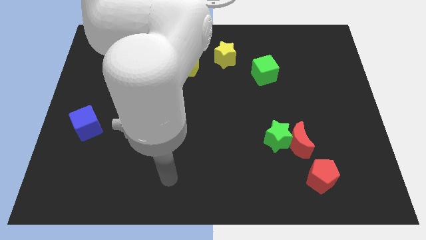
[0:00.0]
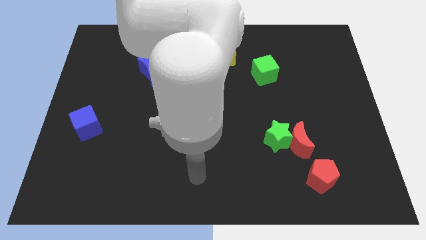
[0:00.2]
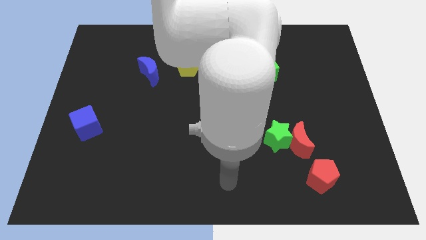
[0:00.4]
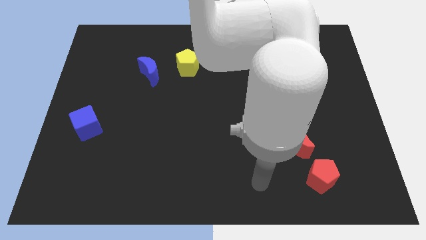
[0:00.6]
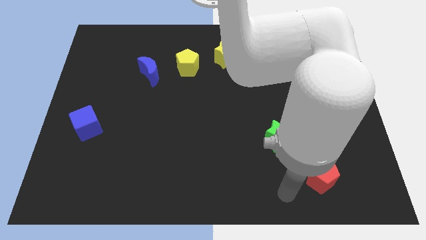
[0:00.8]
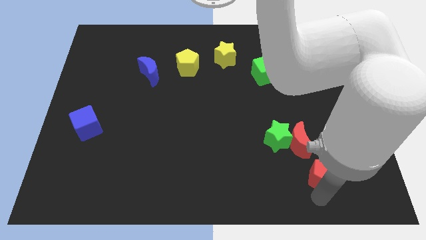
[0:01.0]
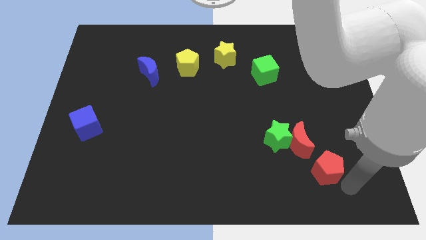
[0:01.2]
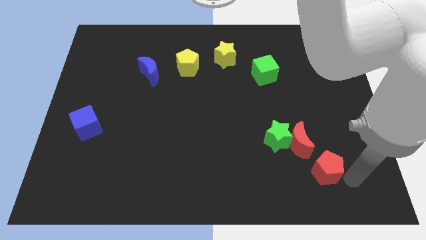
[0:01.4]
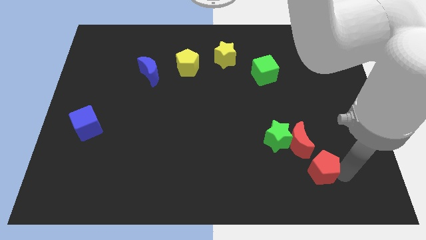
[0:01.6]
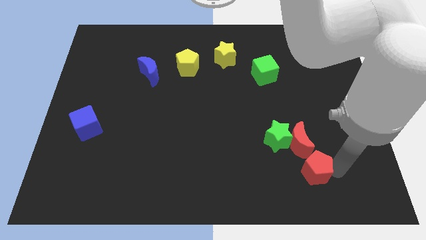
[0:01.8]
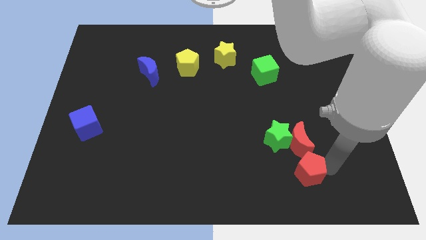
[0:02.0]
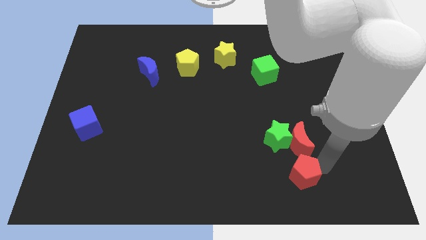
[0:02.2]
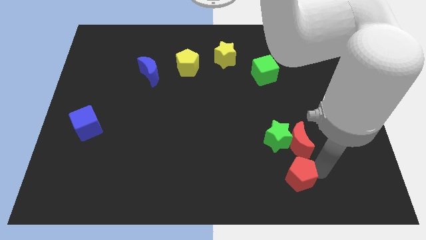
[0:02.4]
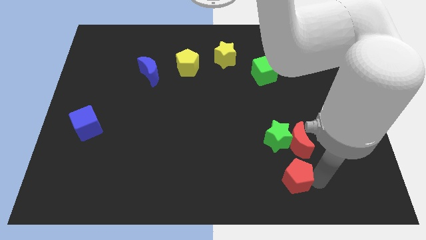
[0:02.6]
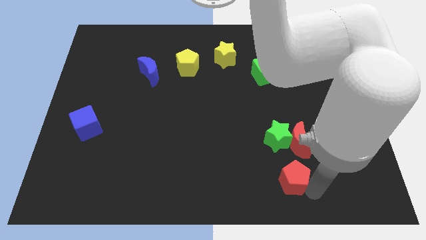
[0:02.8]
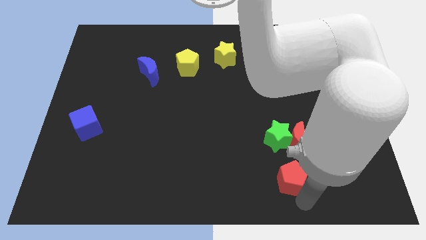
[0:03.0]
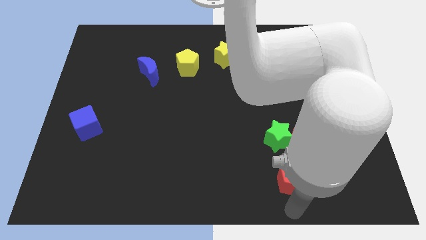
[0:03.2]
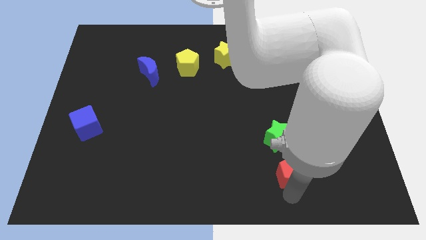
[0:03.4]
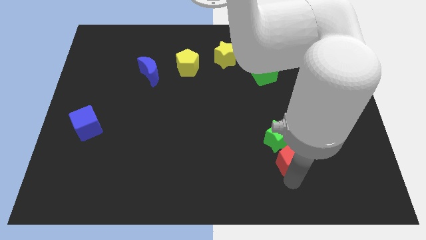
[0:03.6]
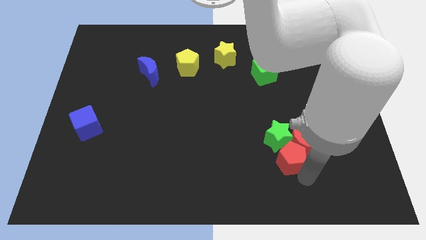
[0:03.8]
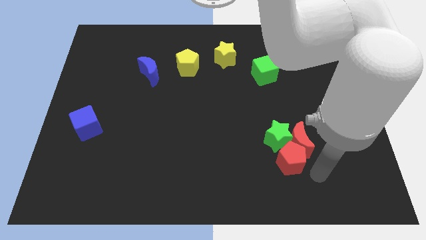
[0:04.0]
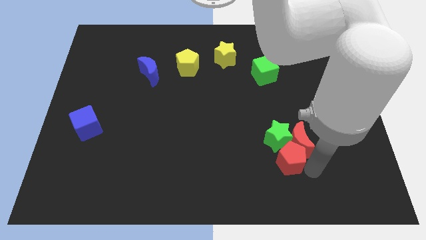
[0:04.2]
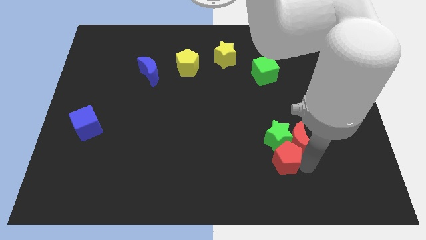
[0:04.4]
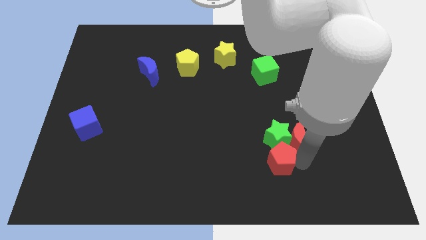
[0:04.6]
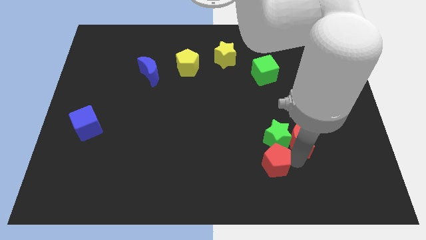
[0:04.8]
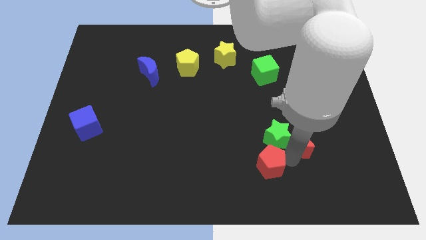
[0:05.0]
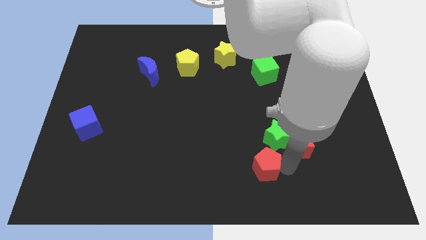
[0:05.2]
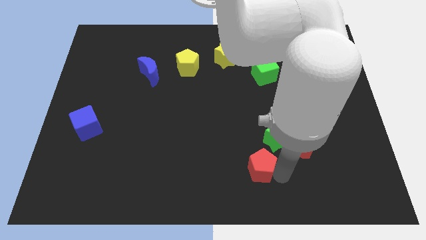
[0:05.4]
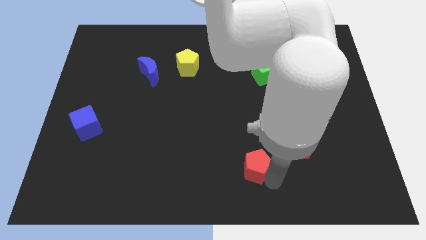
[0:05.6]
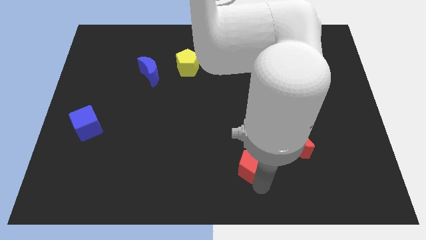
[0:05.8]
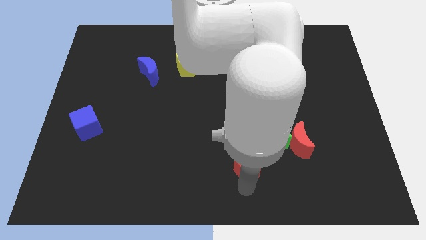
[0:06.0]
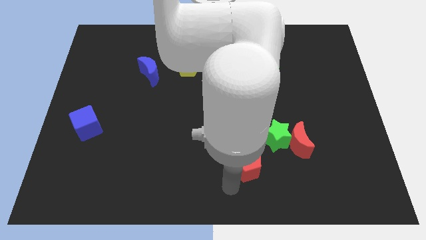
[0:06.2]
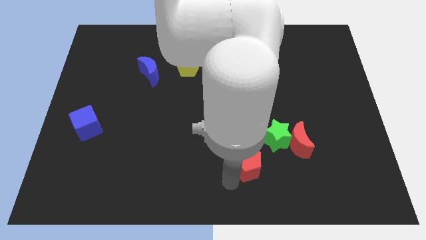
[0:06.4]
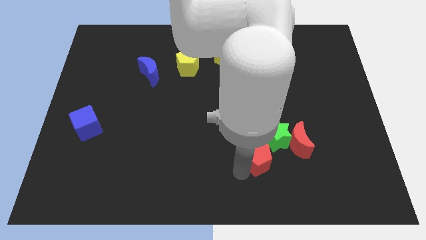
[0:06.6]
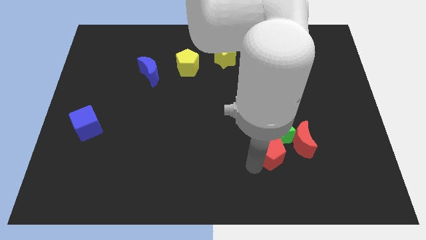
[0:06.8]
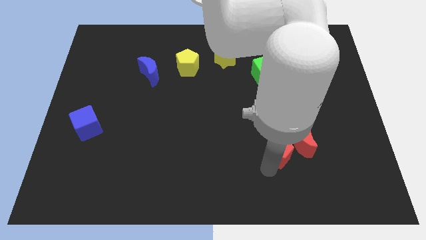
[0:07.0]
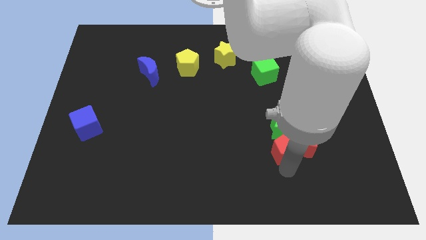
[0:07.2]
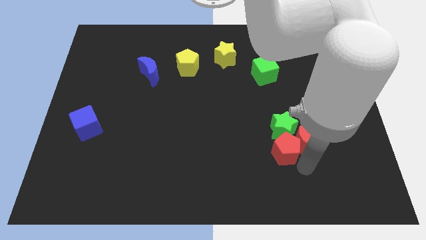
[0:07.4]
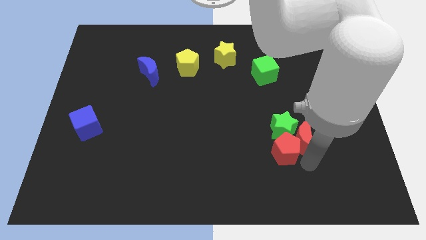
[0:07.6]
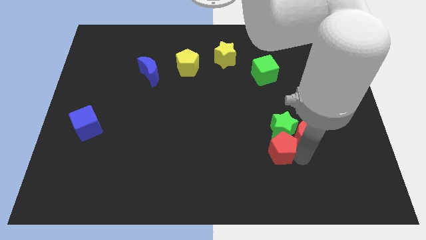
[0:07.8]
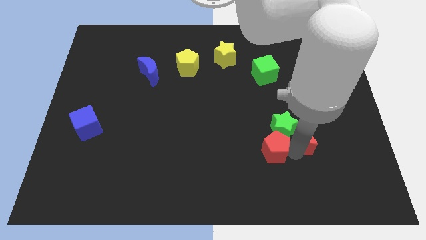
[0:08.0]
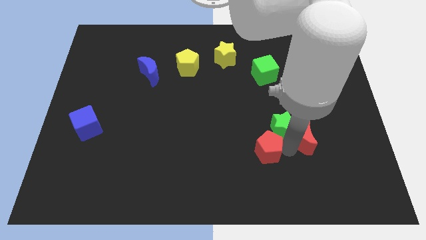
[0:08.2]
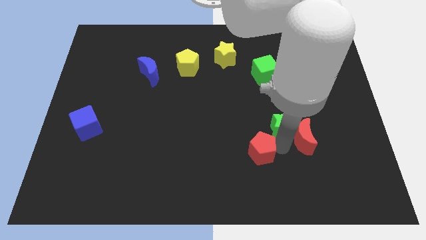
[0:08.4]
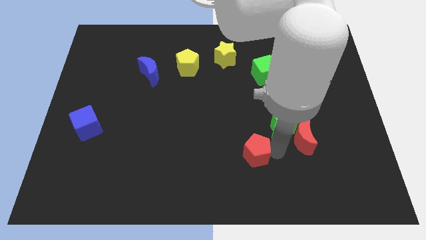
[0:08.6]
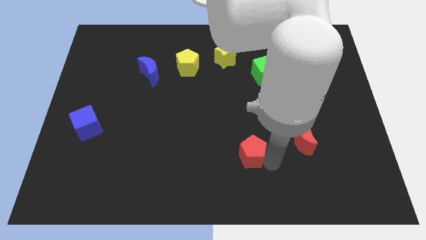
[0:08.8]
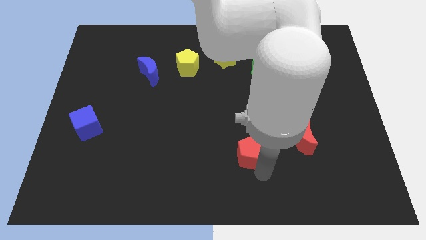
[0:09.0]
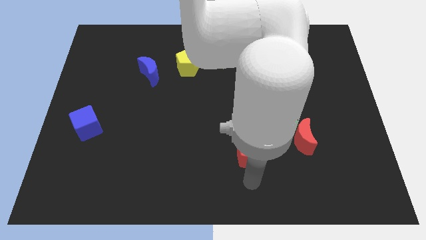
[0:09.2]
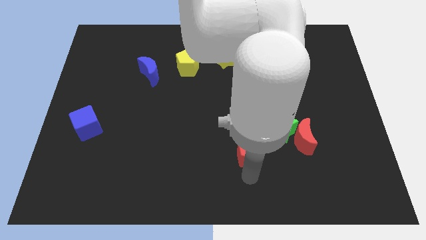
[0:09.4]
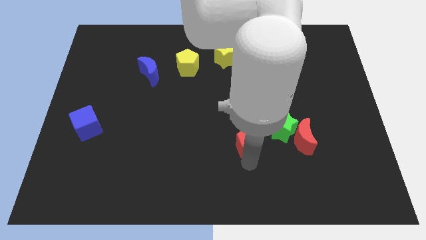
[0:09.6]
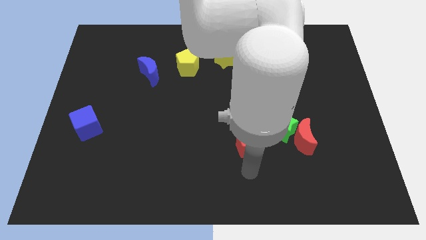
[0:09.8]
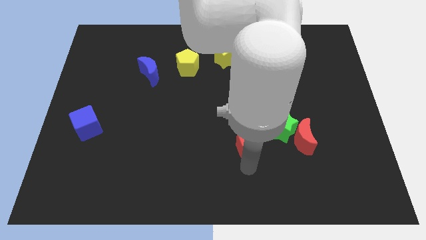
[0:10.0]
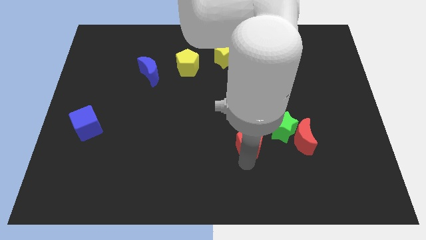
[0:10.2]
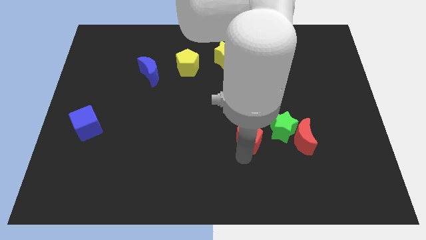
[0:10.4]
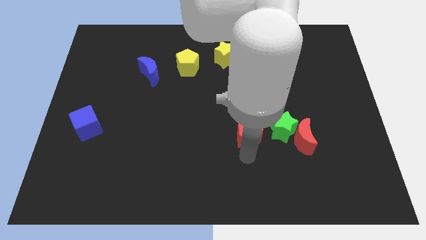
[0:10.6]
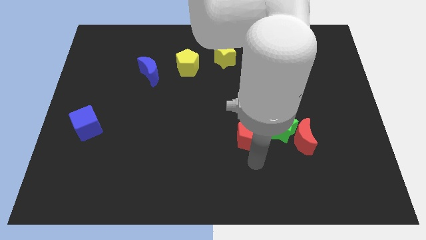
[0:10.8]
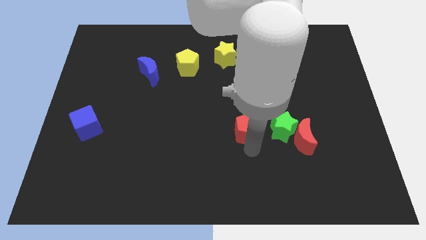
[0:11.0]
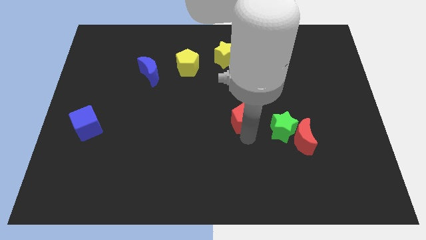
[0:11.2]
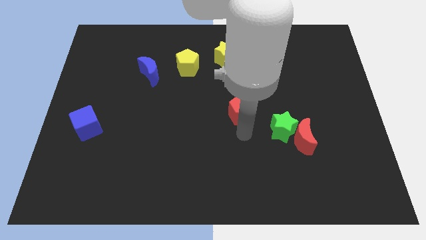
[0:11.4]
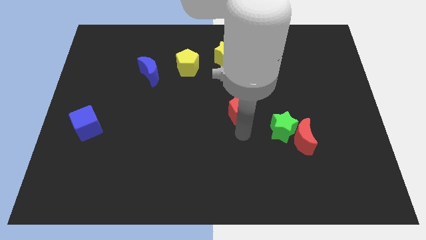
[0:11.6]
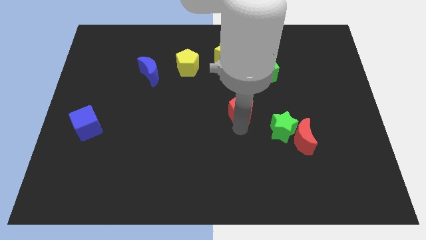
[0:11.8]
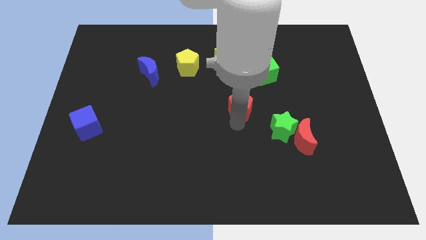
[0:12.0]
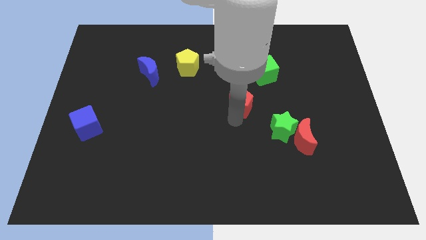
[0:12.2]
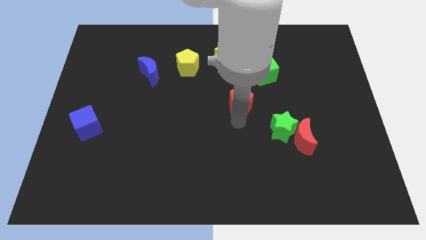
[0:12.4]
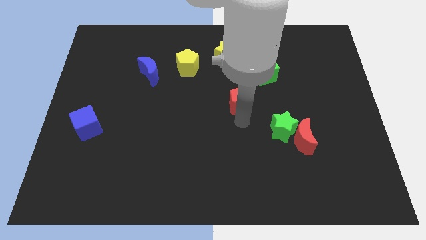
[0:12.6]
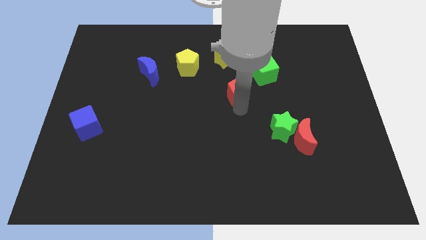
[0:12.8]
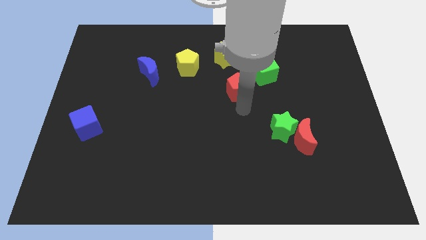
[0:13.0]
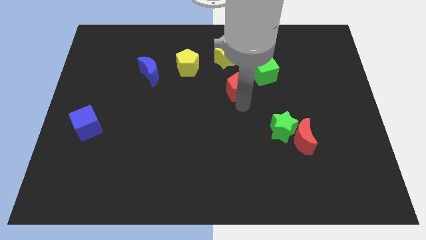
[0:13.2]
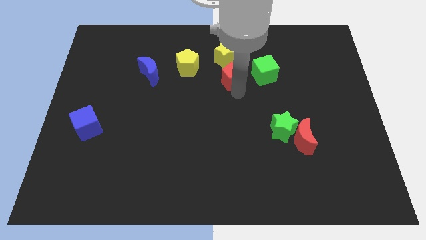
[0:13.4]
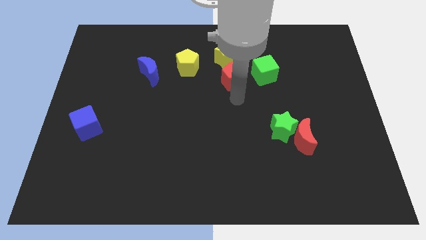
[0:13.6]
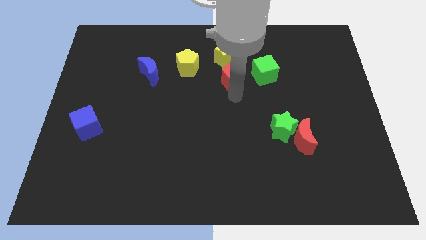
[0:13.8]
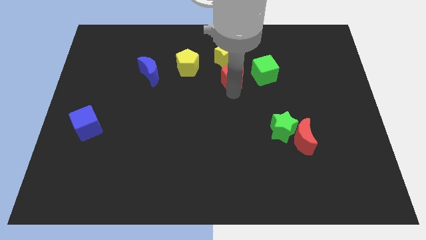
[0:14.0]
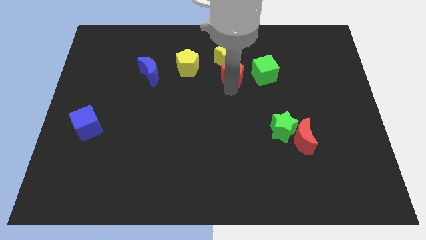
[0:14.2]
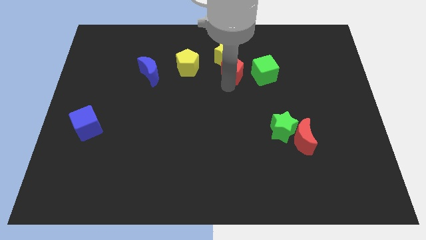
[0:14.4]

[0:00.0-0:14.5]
slide the red pentagon close to the yellow star

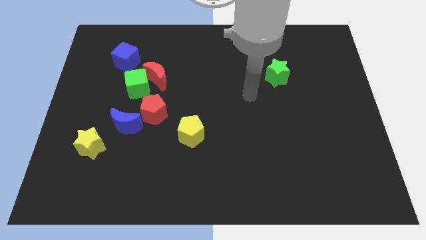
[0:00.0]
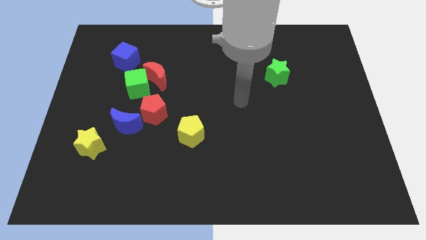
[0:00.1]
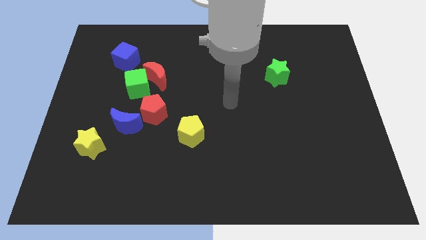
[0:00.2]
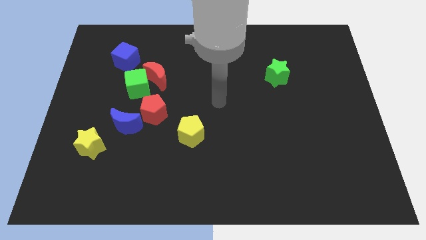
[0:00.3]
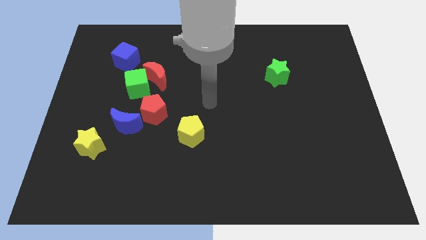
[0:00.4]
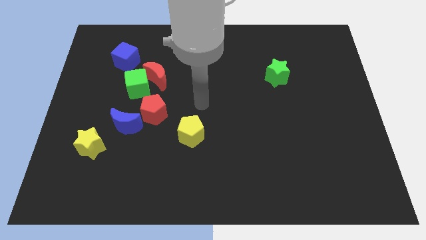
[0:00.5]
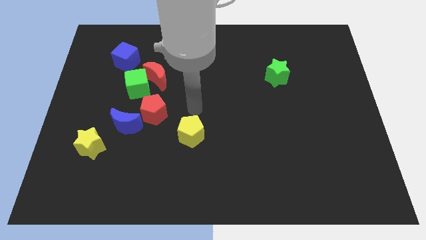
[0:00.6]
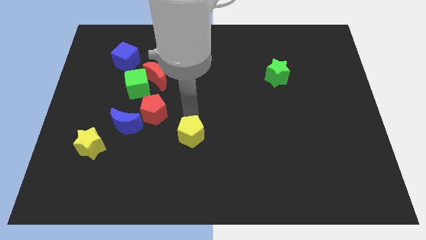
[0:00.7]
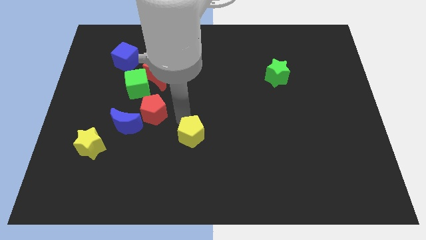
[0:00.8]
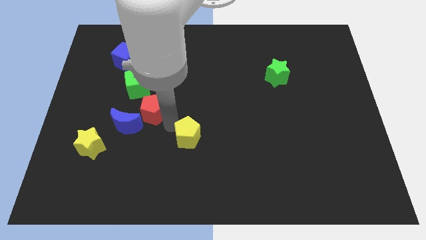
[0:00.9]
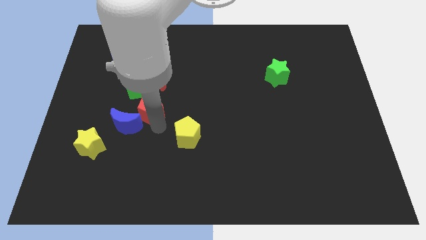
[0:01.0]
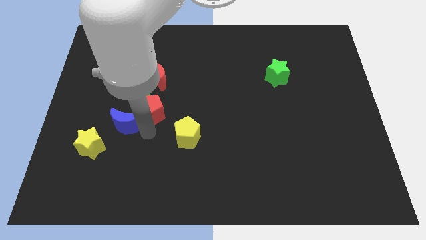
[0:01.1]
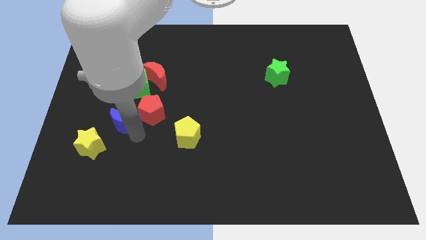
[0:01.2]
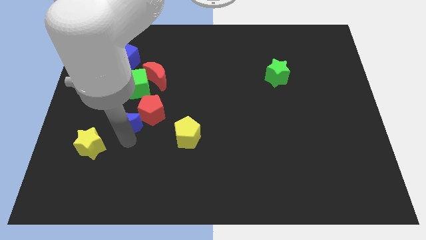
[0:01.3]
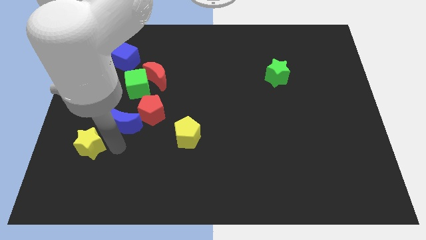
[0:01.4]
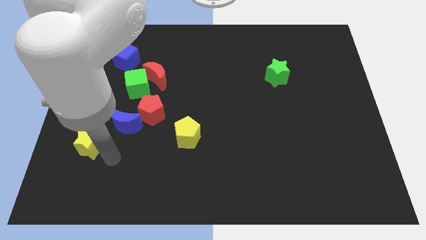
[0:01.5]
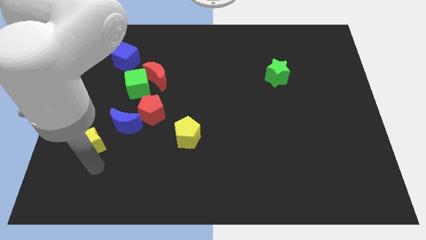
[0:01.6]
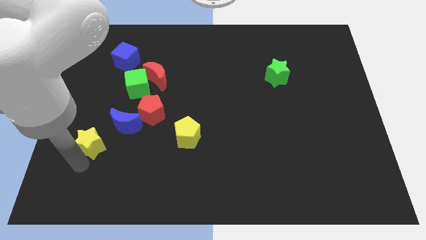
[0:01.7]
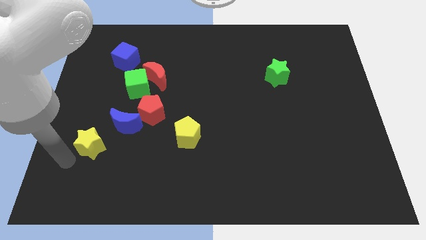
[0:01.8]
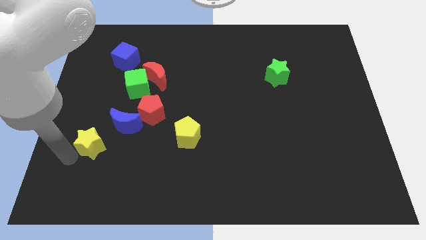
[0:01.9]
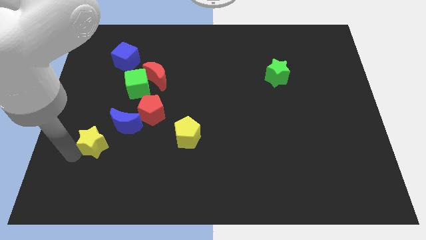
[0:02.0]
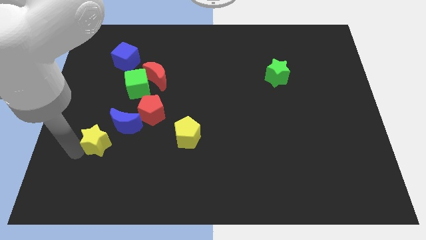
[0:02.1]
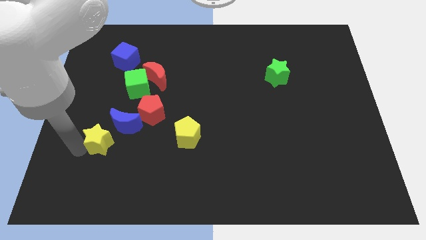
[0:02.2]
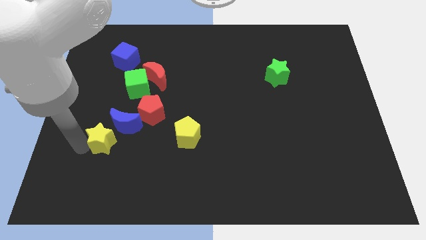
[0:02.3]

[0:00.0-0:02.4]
move the yellow star towards the blue moon
